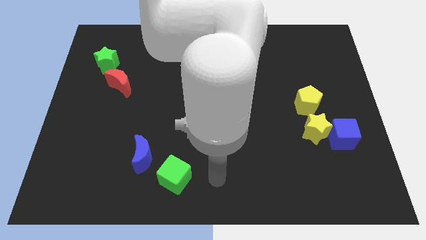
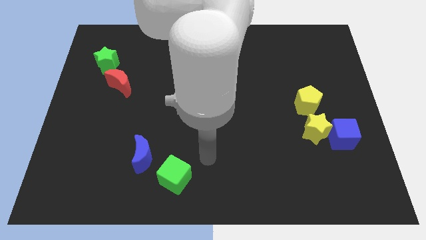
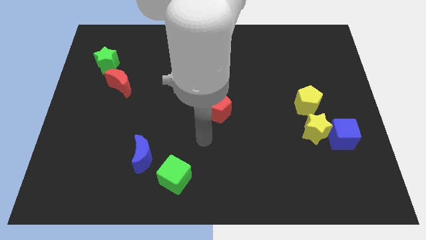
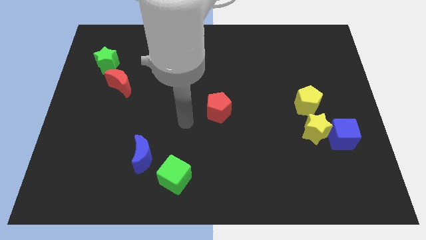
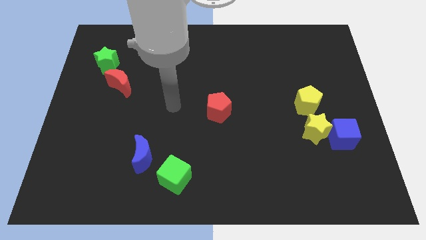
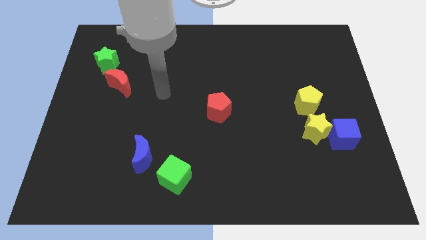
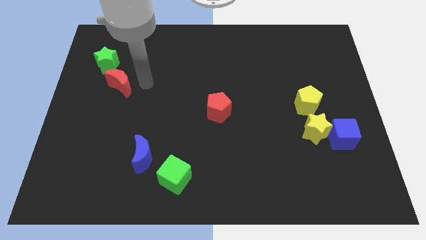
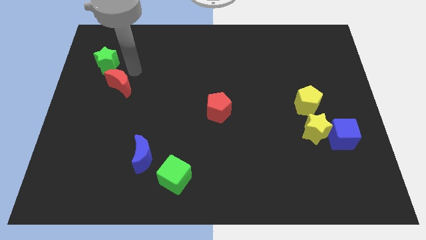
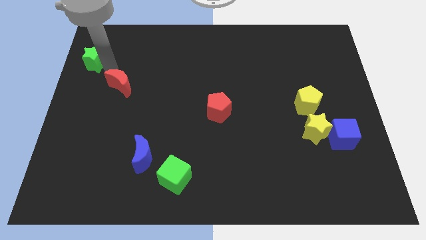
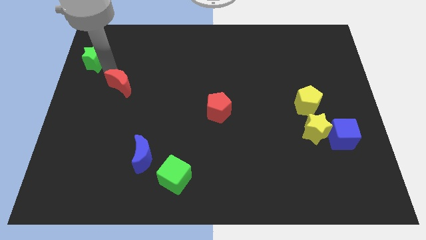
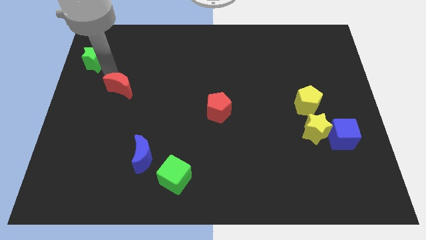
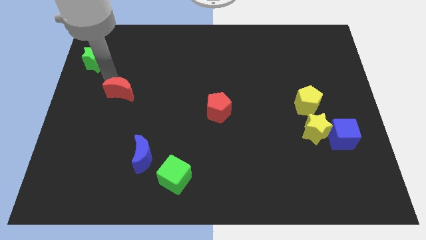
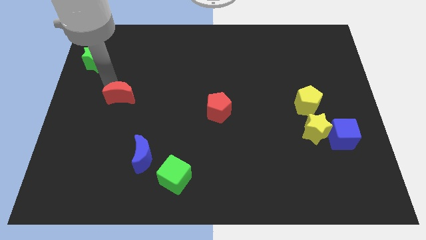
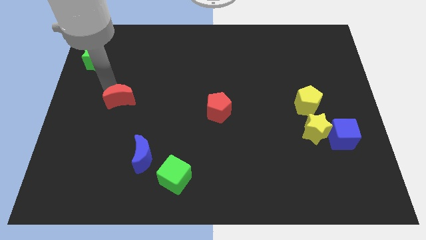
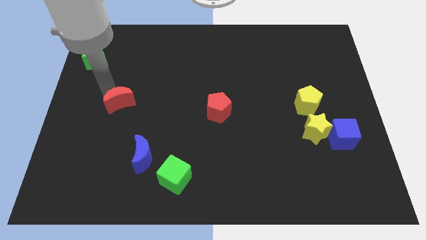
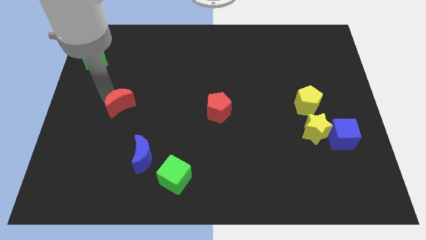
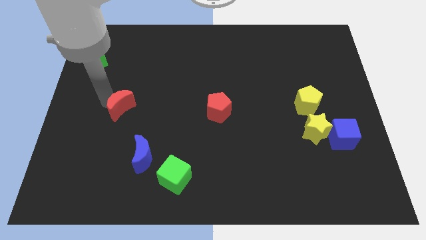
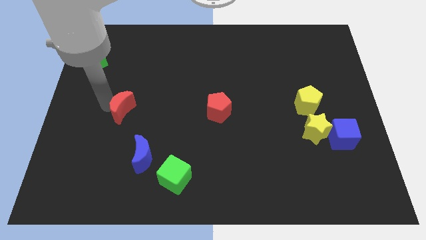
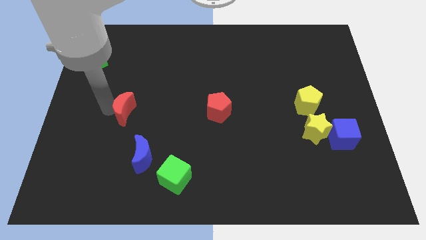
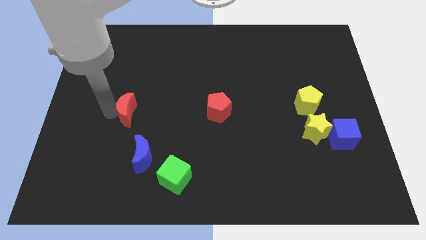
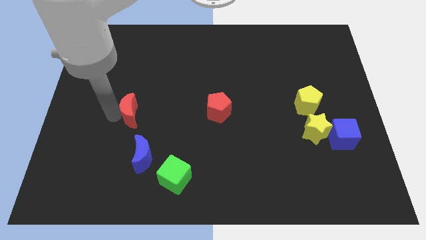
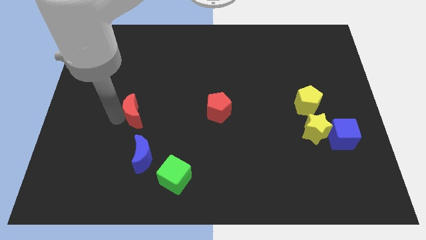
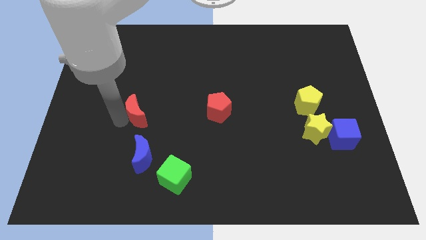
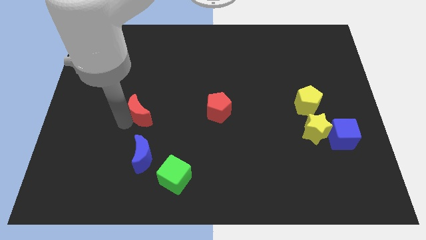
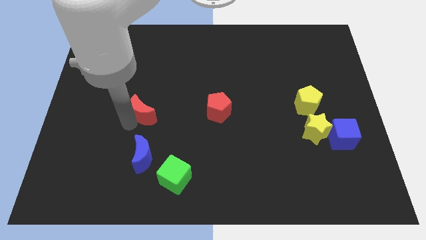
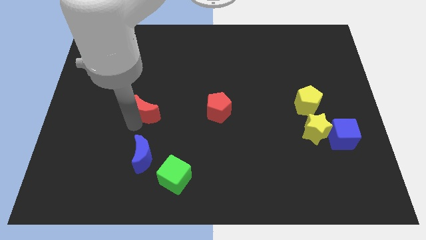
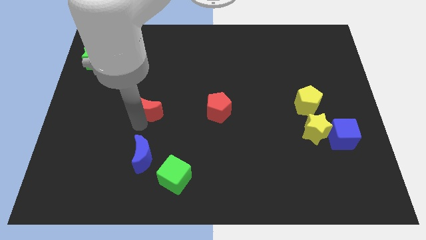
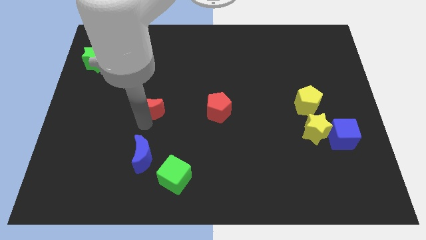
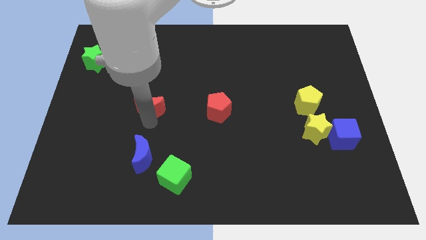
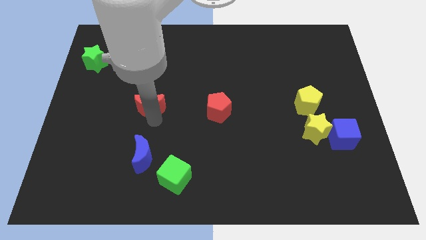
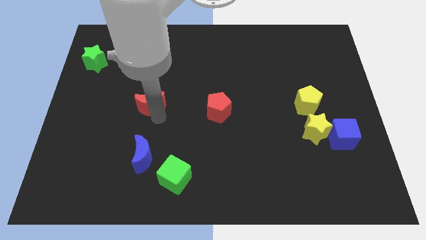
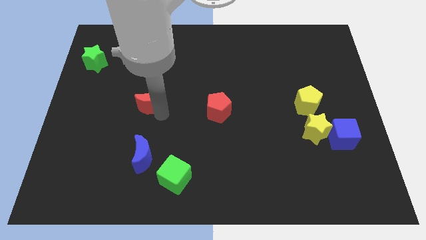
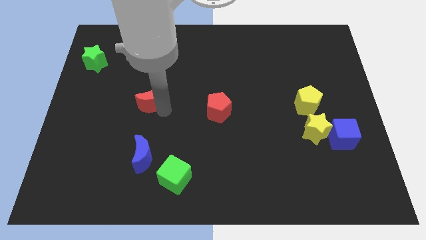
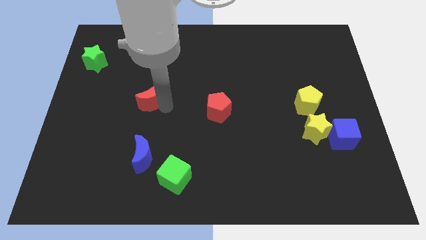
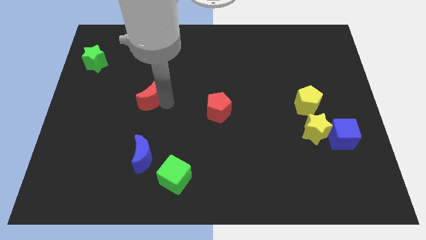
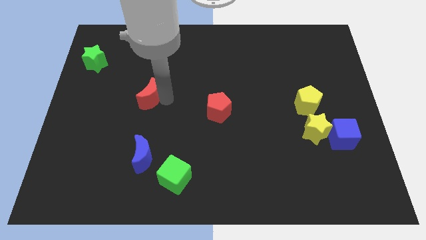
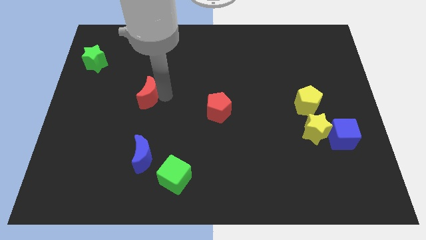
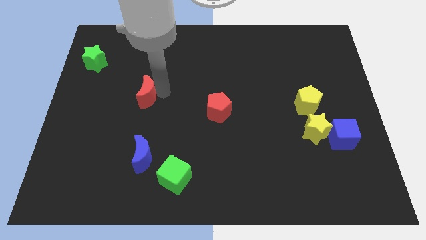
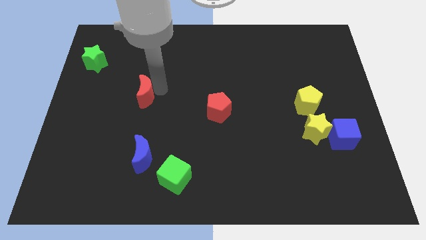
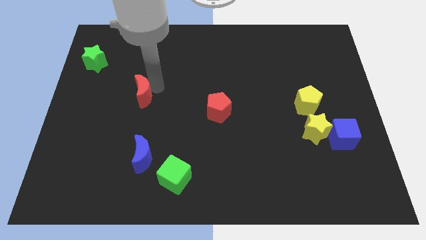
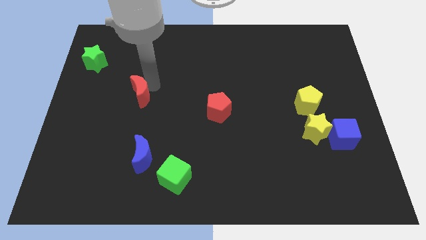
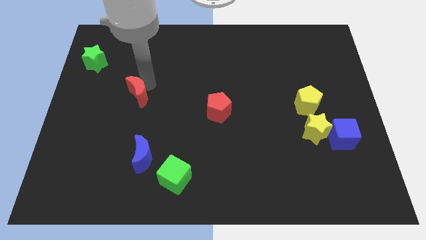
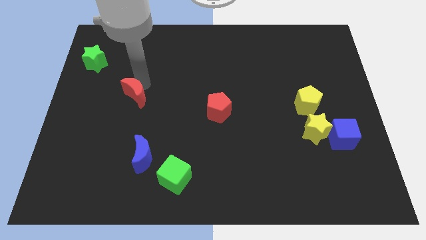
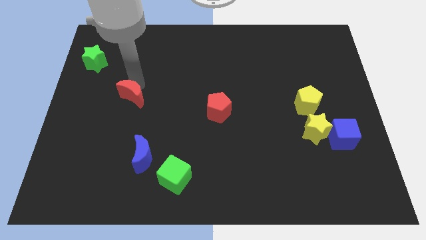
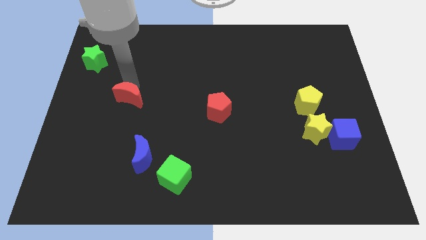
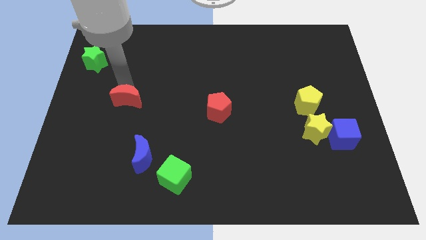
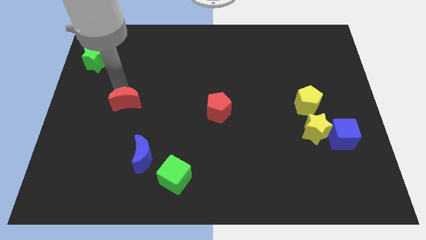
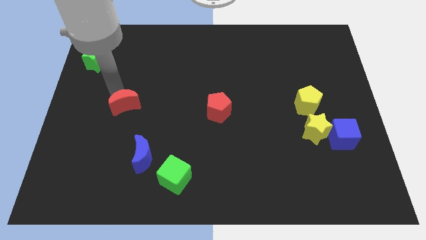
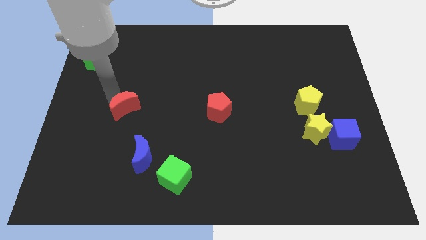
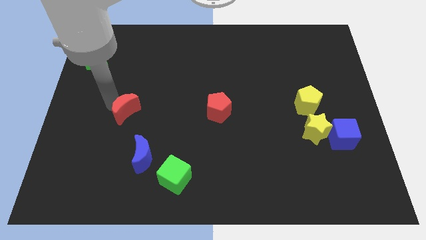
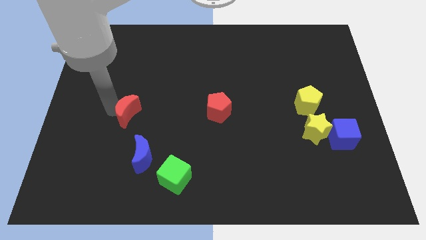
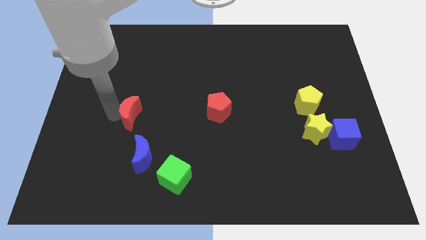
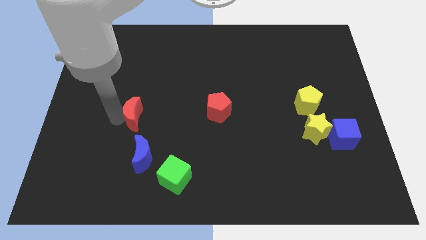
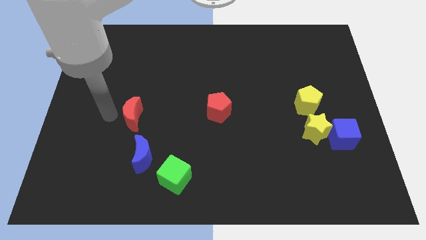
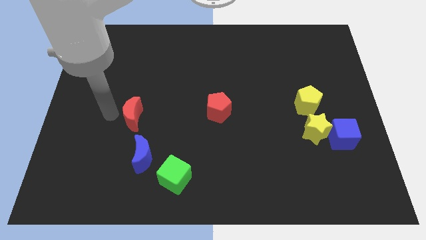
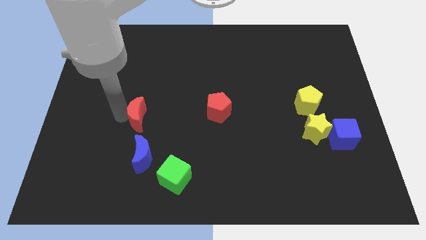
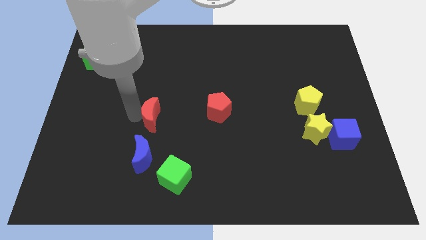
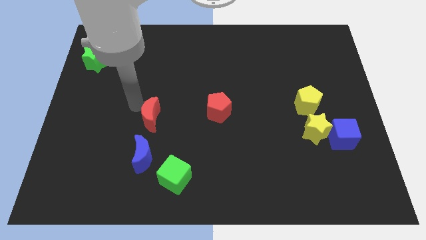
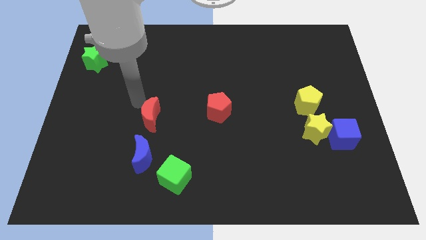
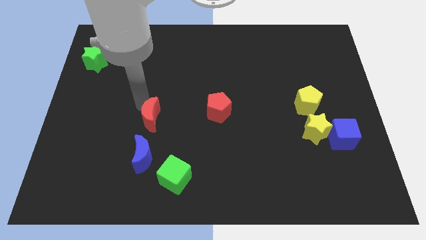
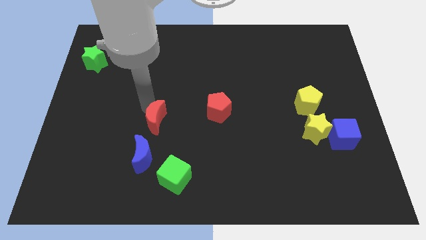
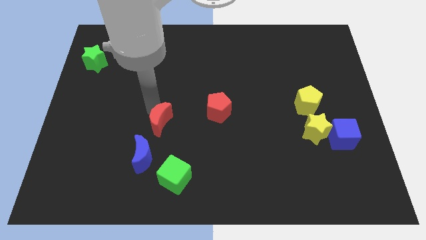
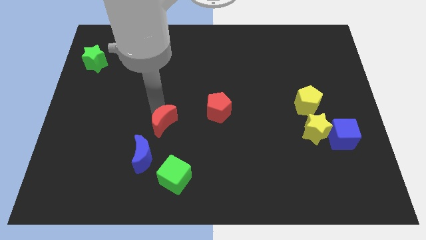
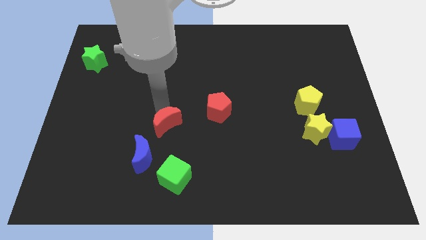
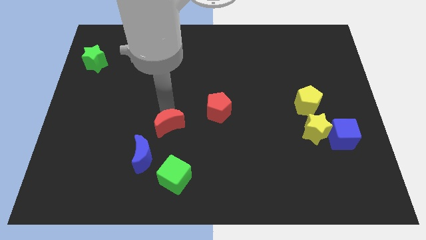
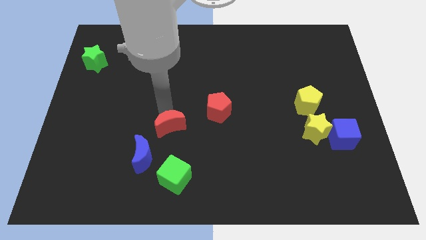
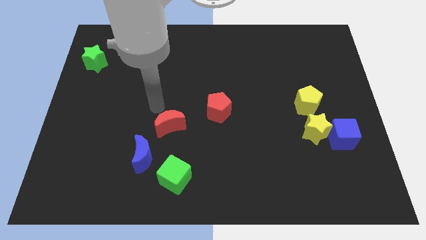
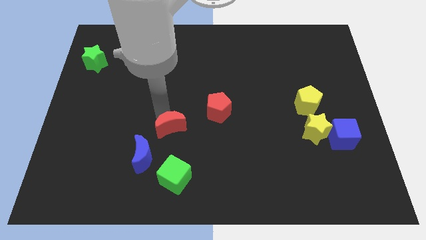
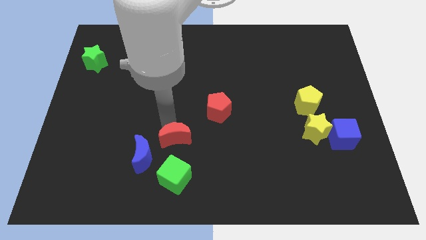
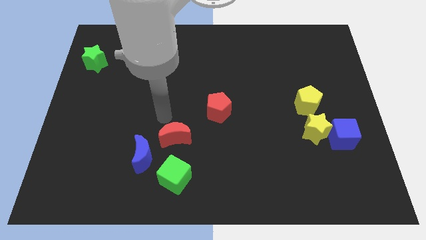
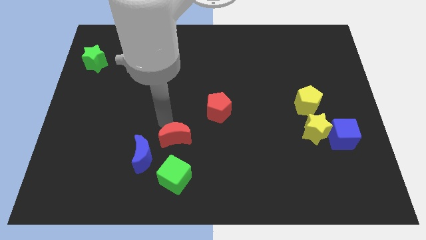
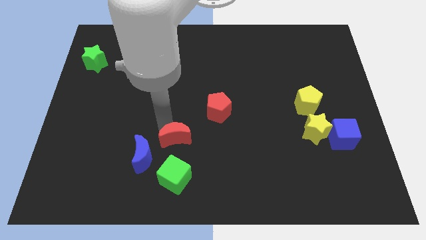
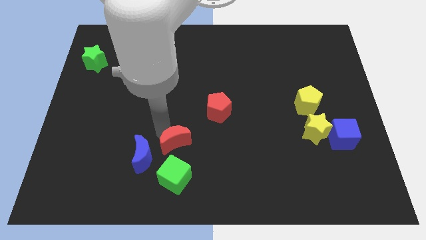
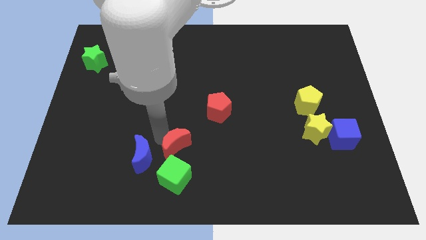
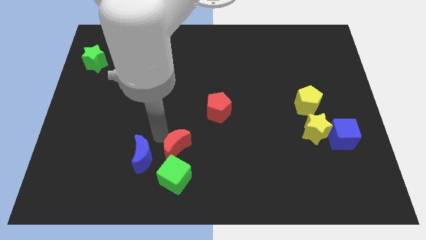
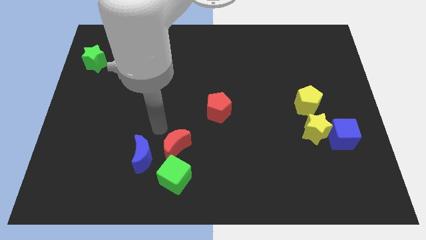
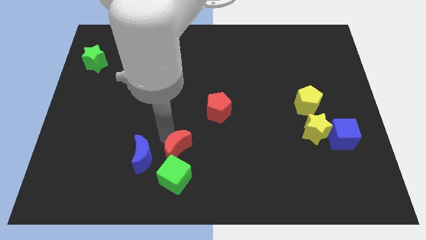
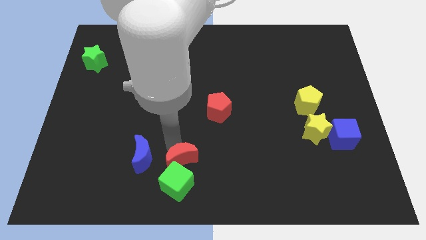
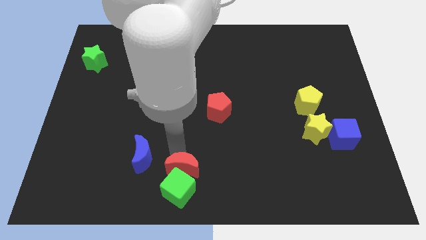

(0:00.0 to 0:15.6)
put the red moon to the bottom
